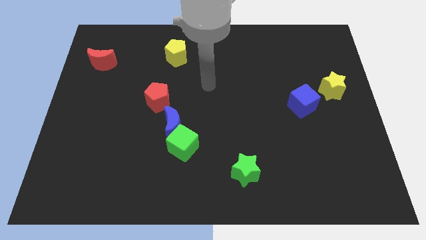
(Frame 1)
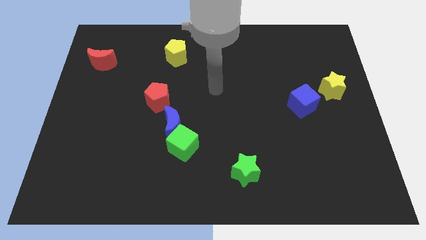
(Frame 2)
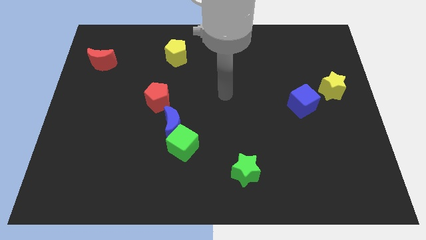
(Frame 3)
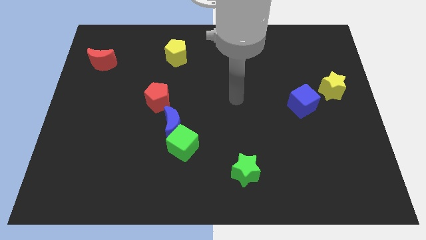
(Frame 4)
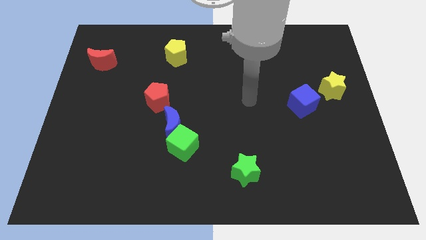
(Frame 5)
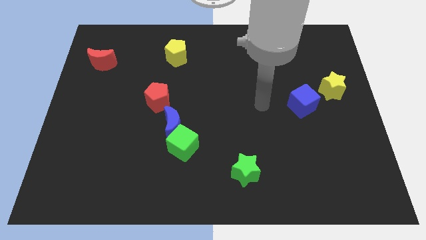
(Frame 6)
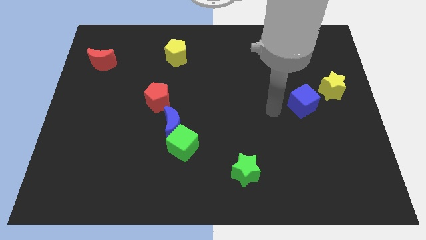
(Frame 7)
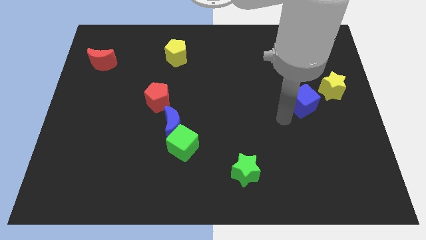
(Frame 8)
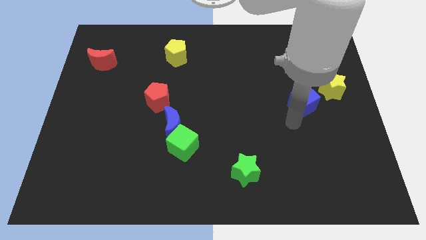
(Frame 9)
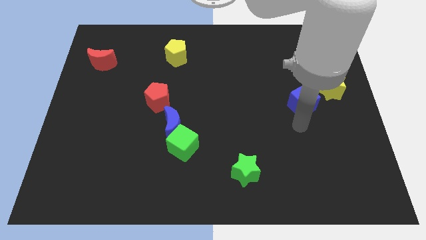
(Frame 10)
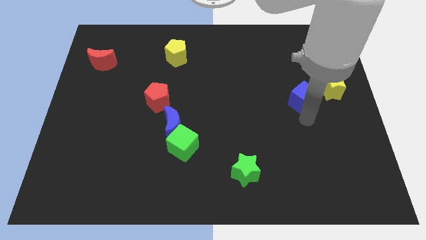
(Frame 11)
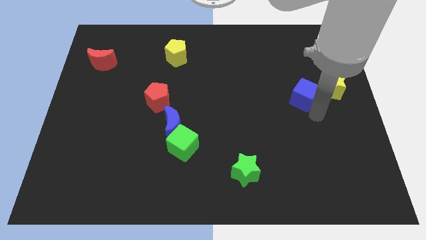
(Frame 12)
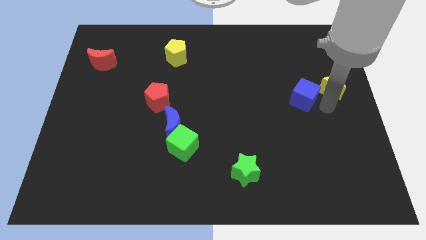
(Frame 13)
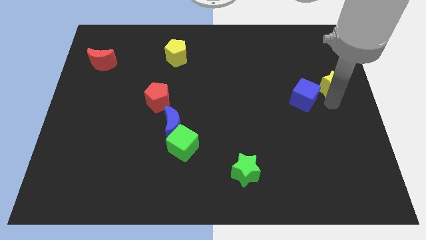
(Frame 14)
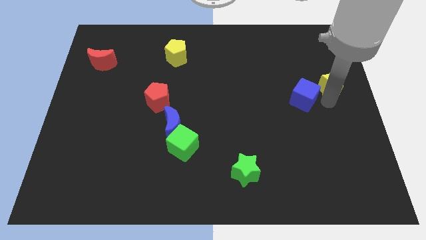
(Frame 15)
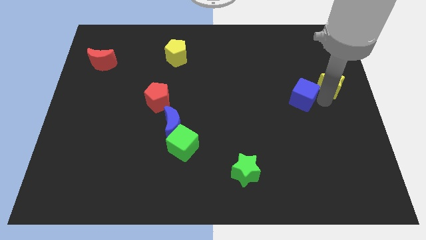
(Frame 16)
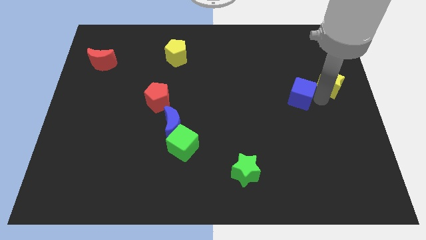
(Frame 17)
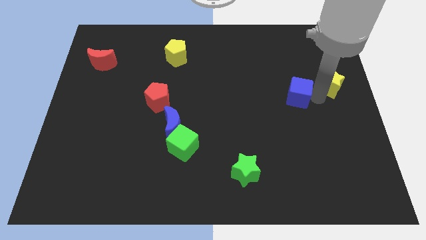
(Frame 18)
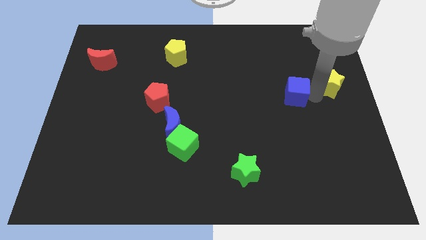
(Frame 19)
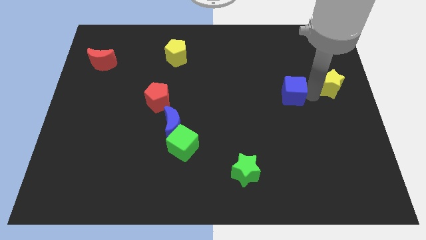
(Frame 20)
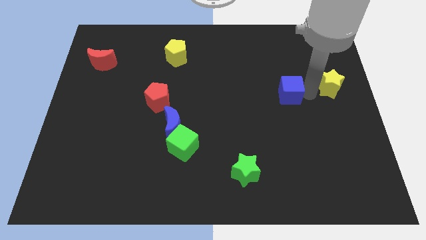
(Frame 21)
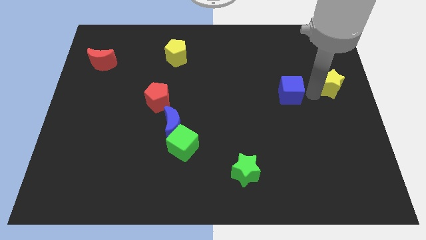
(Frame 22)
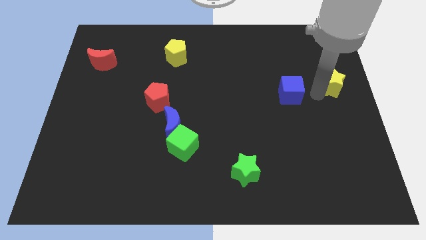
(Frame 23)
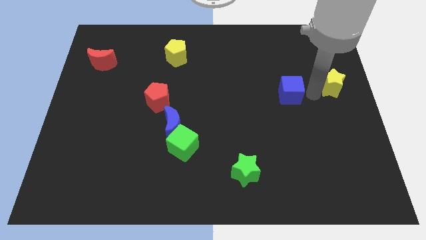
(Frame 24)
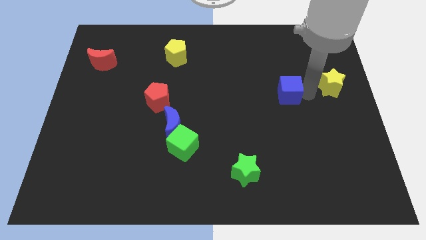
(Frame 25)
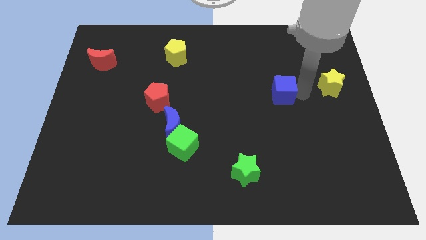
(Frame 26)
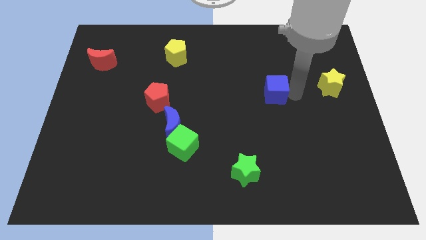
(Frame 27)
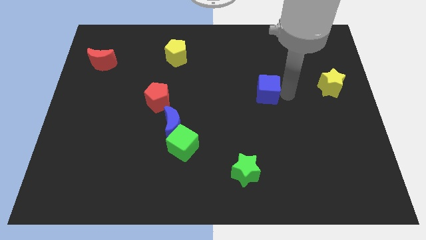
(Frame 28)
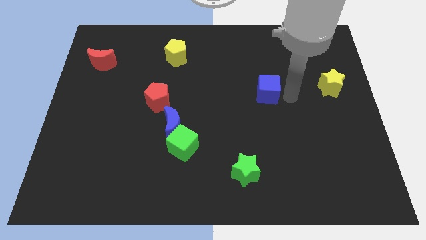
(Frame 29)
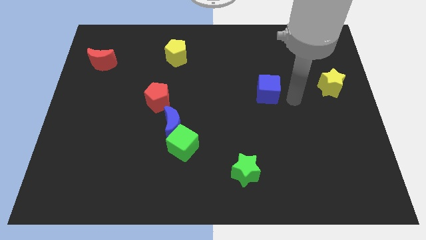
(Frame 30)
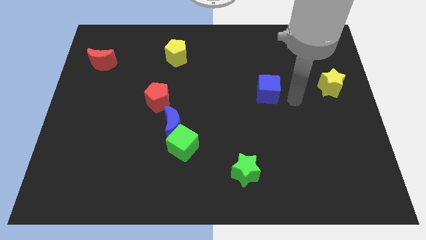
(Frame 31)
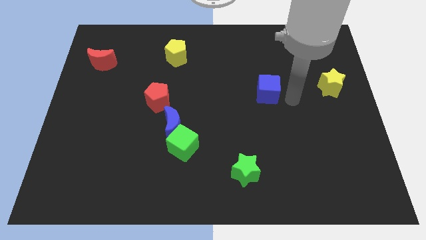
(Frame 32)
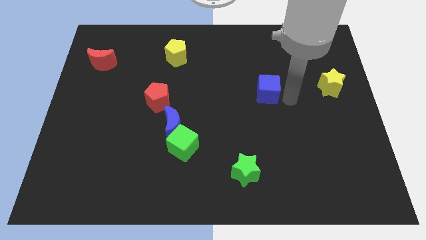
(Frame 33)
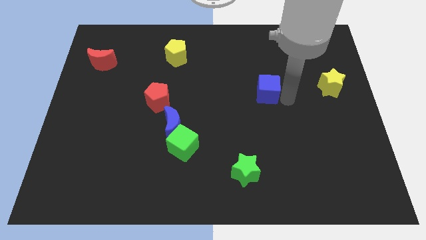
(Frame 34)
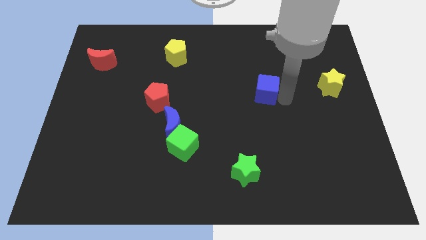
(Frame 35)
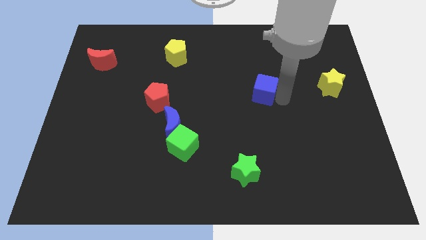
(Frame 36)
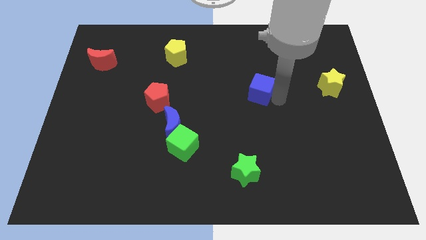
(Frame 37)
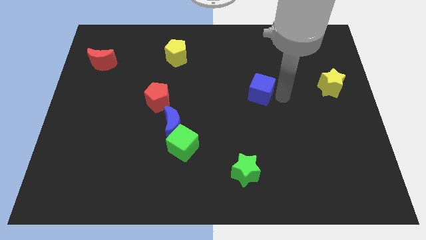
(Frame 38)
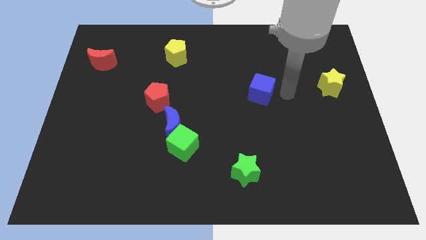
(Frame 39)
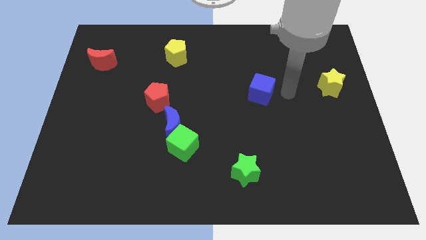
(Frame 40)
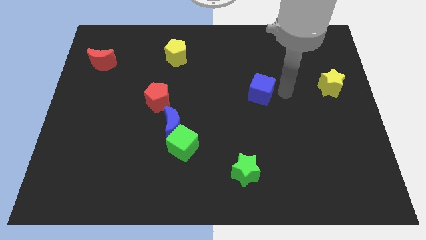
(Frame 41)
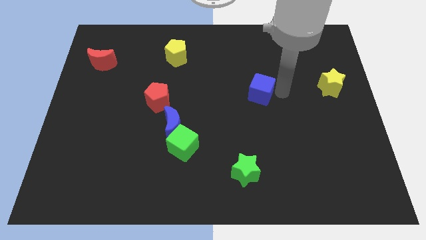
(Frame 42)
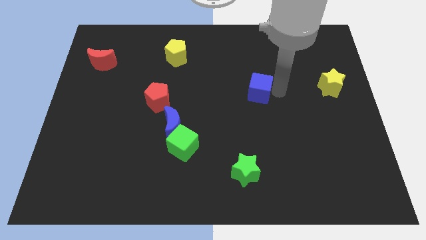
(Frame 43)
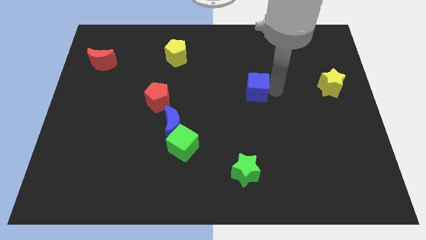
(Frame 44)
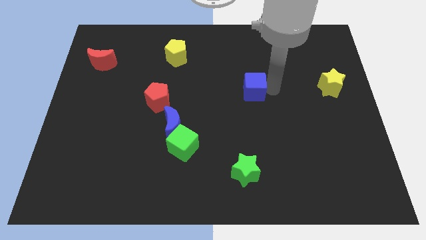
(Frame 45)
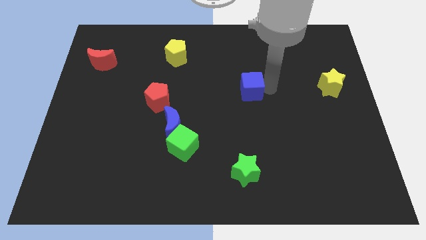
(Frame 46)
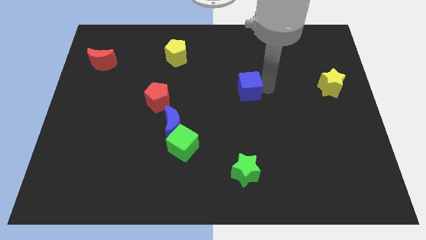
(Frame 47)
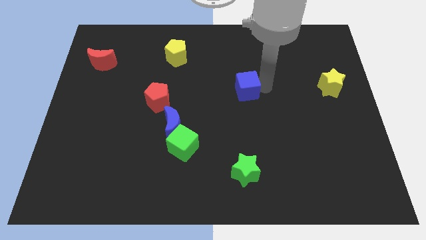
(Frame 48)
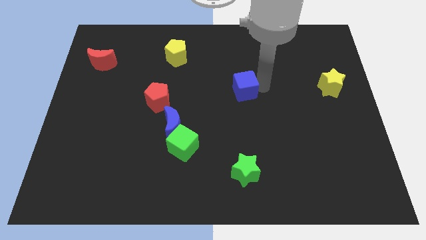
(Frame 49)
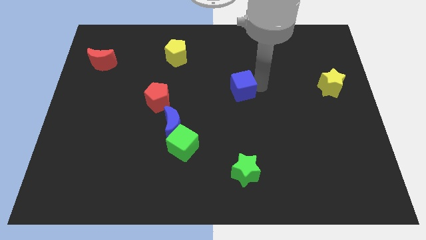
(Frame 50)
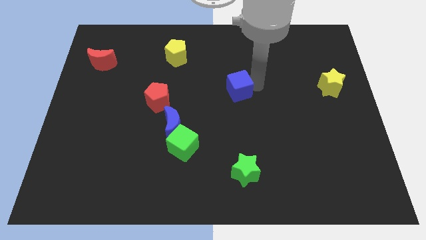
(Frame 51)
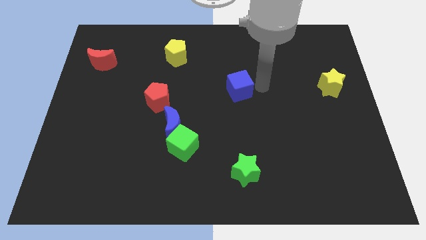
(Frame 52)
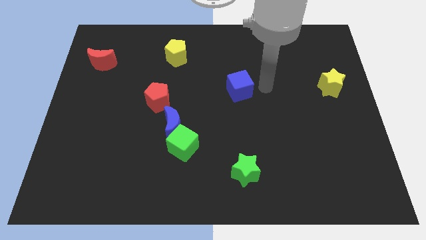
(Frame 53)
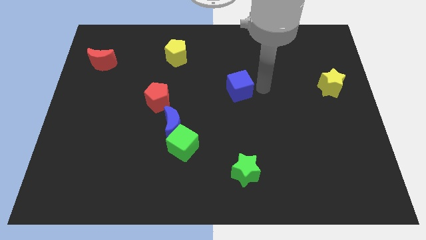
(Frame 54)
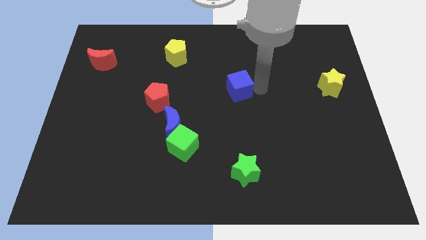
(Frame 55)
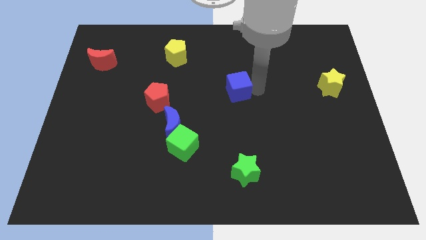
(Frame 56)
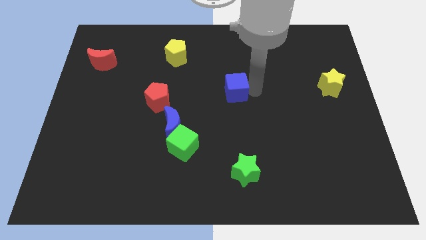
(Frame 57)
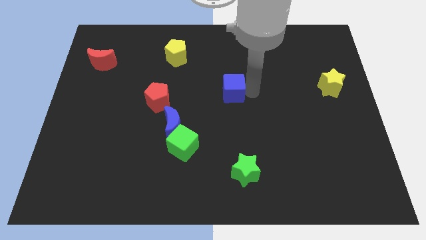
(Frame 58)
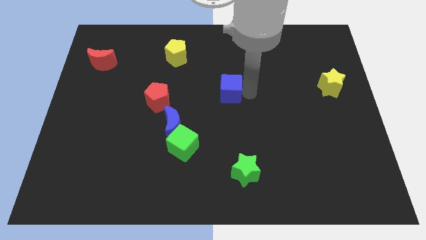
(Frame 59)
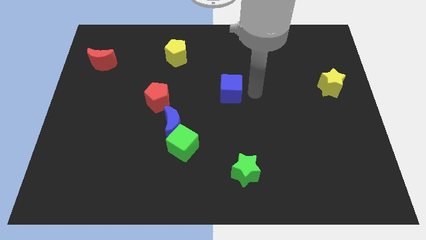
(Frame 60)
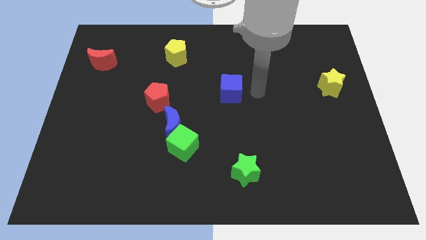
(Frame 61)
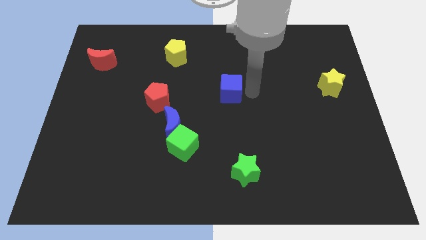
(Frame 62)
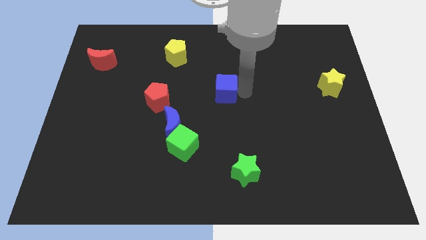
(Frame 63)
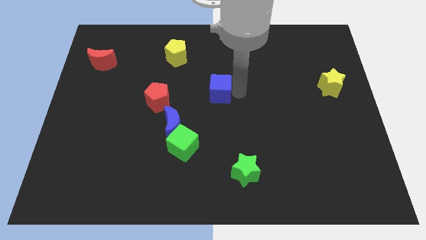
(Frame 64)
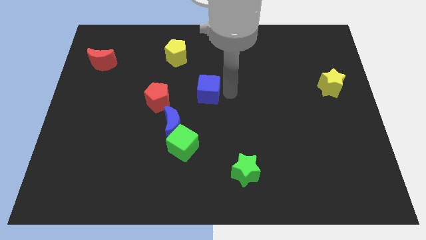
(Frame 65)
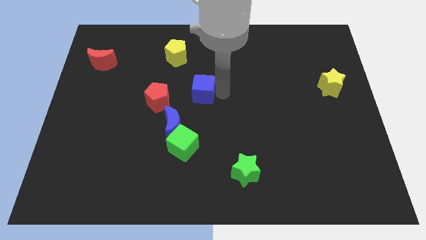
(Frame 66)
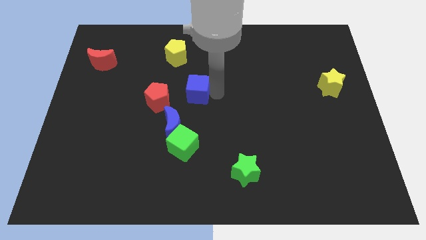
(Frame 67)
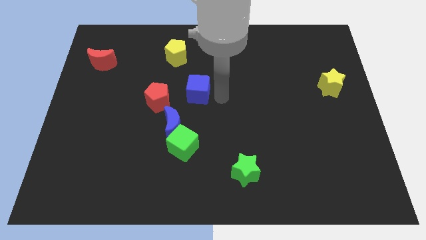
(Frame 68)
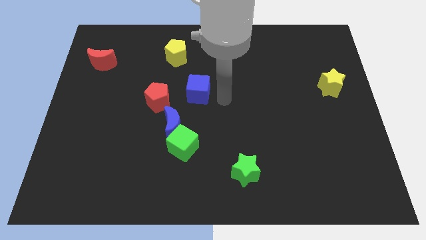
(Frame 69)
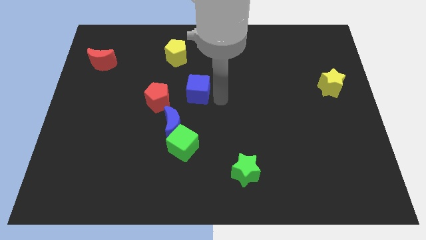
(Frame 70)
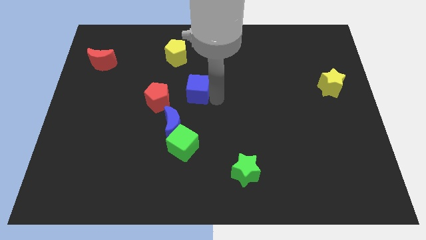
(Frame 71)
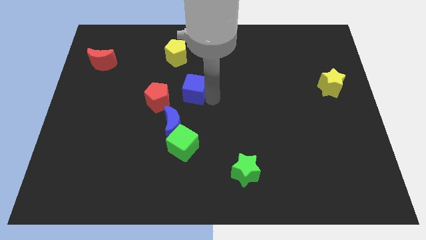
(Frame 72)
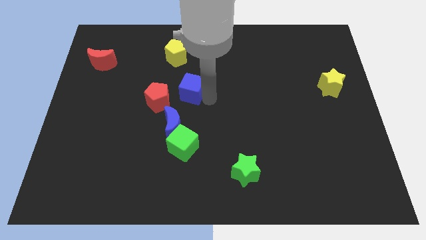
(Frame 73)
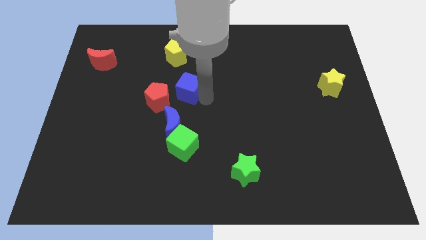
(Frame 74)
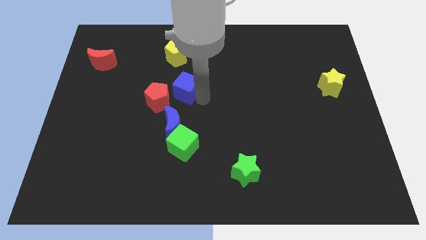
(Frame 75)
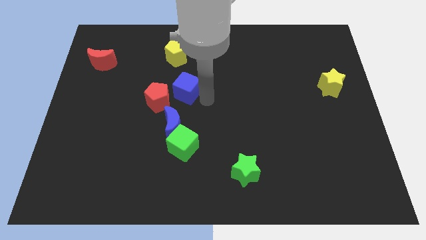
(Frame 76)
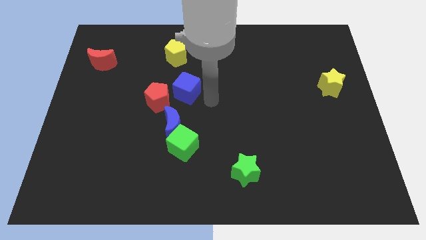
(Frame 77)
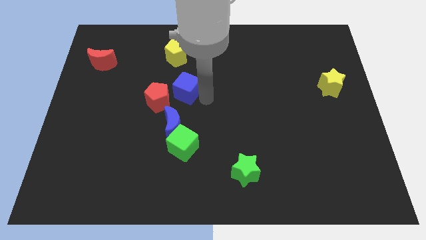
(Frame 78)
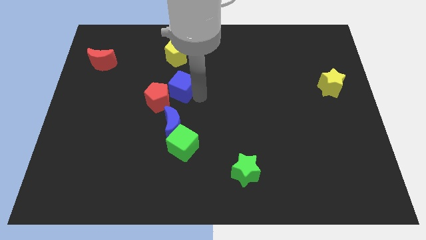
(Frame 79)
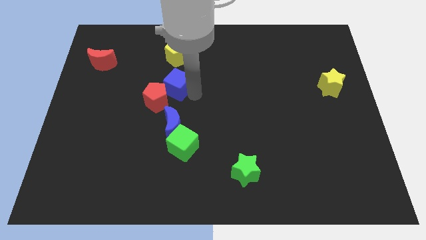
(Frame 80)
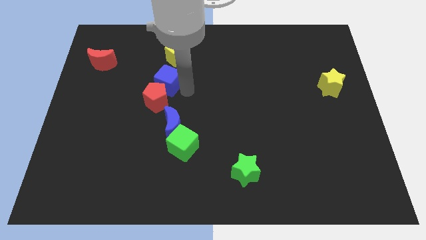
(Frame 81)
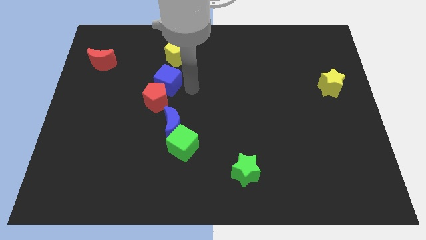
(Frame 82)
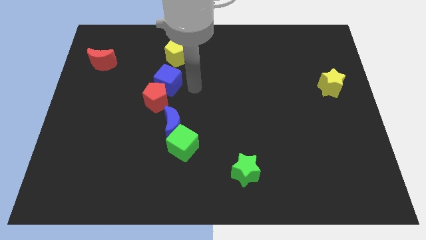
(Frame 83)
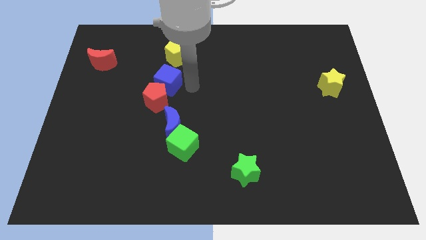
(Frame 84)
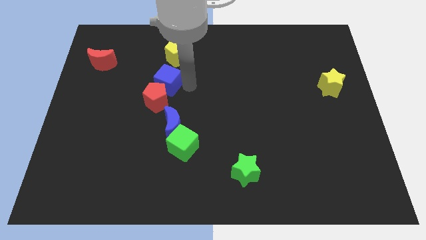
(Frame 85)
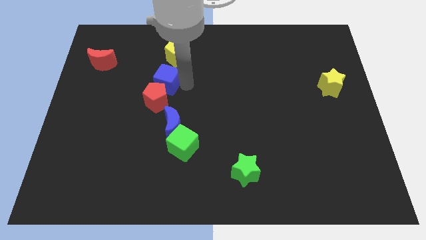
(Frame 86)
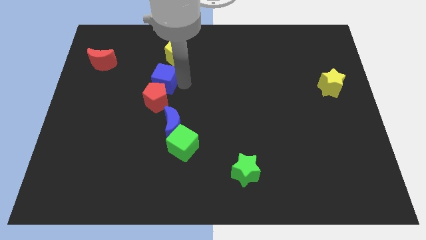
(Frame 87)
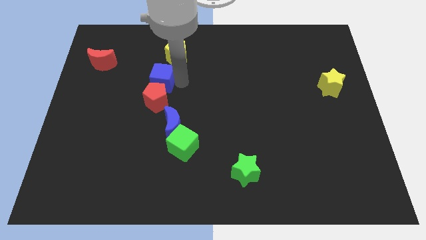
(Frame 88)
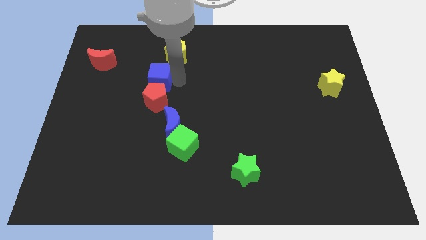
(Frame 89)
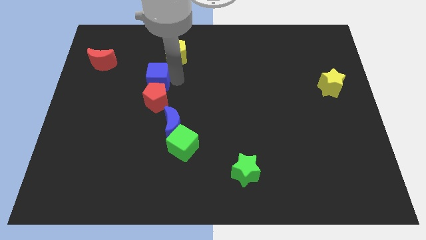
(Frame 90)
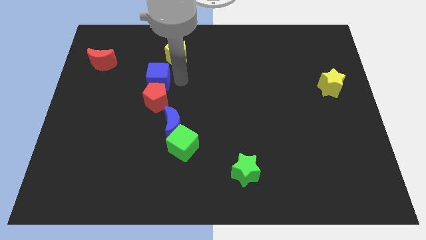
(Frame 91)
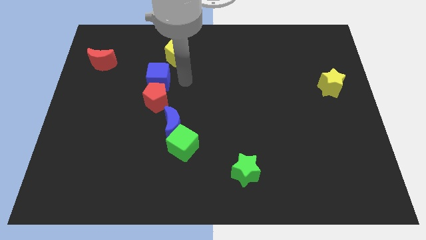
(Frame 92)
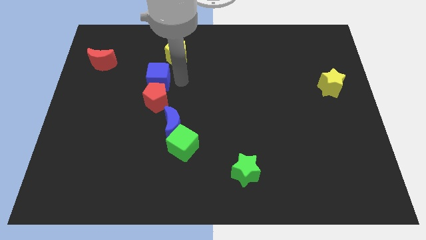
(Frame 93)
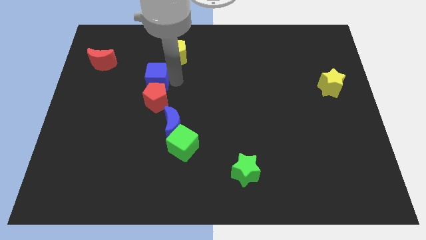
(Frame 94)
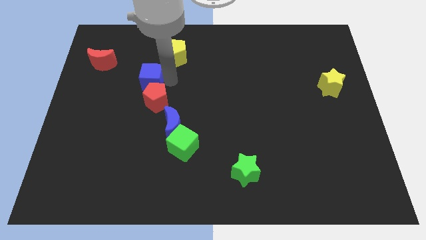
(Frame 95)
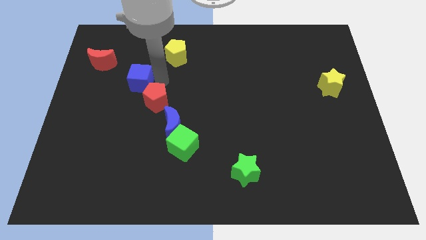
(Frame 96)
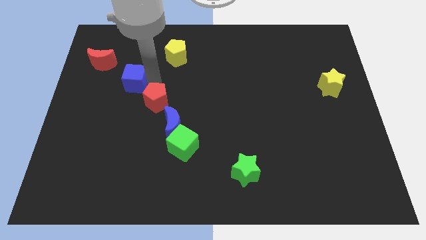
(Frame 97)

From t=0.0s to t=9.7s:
push the blue cube to the bottom right of the red moon
